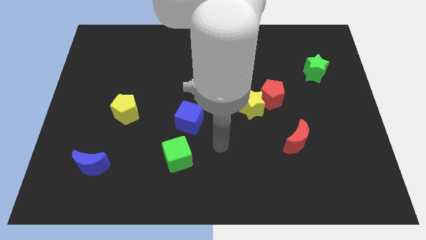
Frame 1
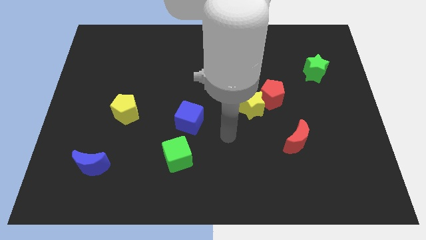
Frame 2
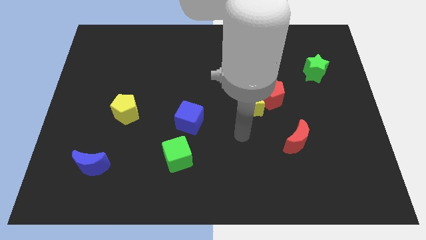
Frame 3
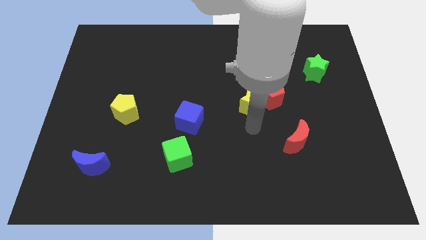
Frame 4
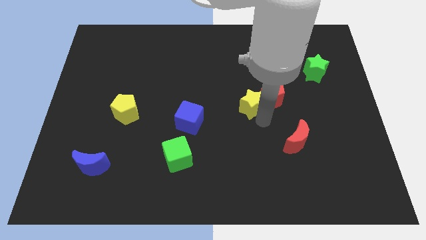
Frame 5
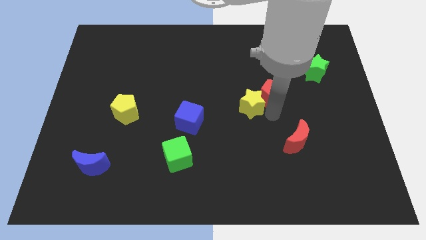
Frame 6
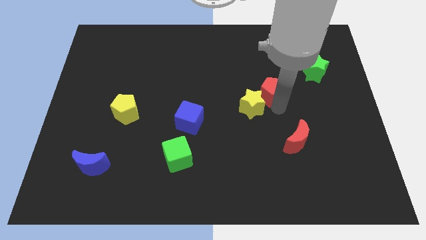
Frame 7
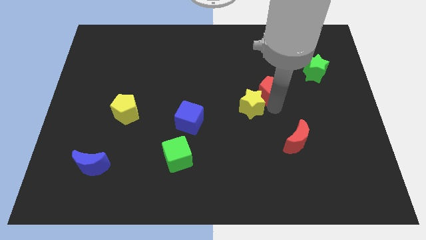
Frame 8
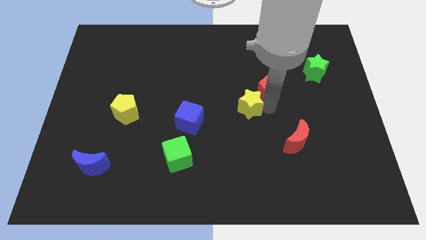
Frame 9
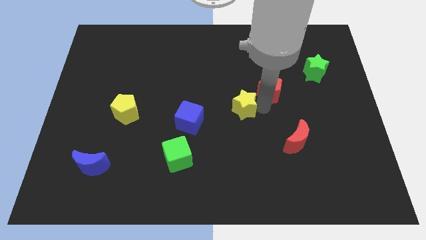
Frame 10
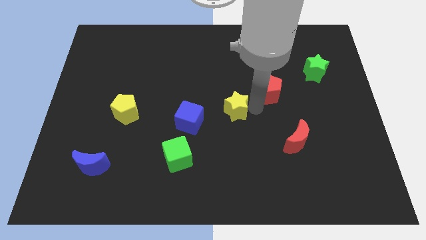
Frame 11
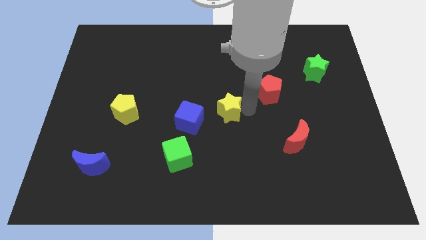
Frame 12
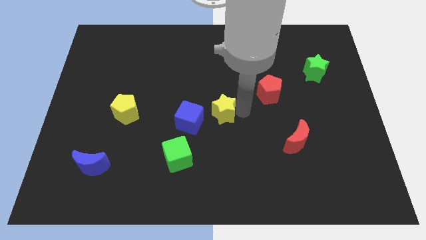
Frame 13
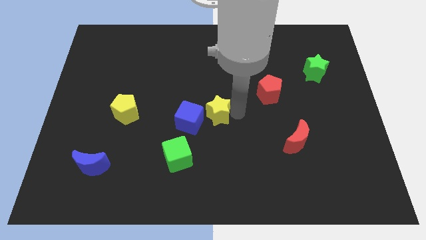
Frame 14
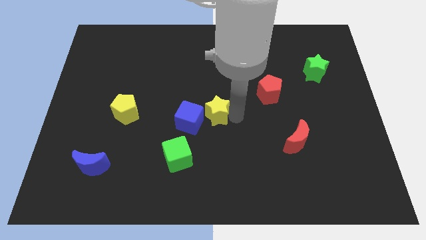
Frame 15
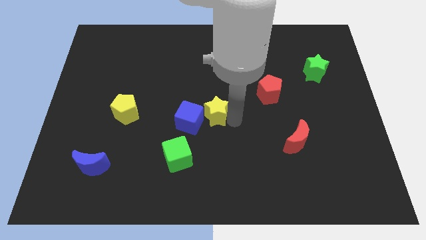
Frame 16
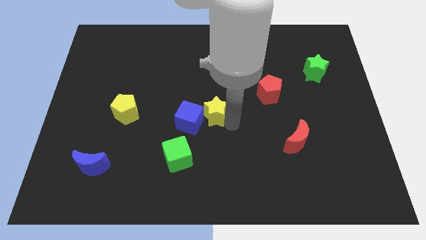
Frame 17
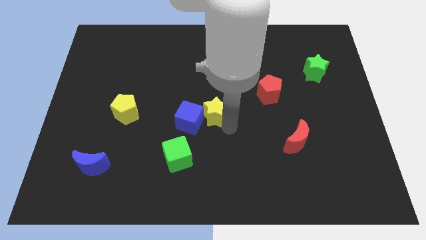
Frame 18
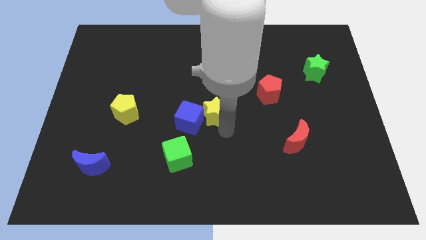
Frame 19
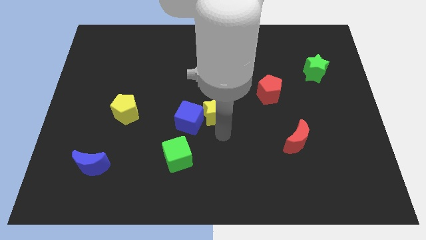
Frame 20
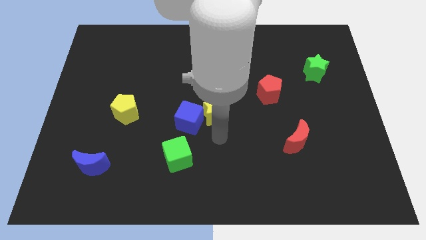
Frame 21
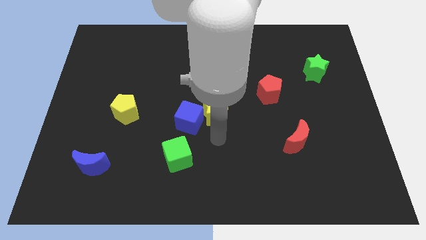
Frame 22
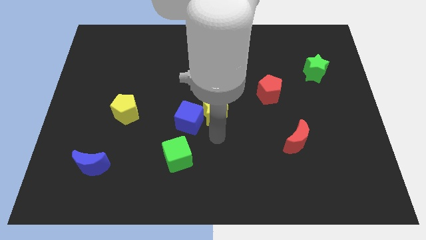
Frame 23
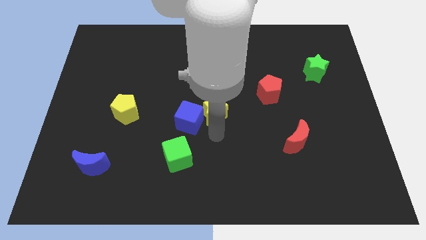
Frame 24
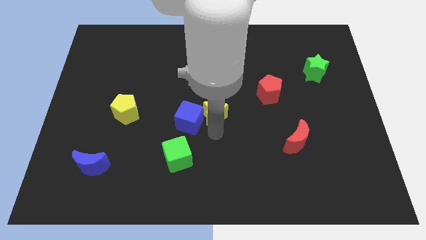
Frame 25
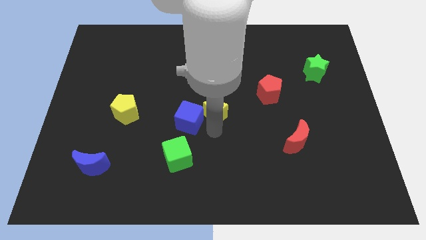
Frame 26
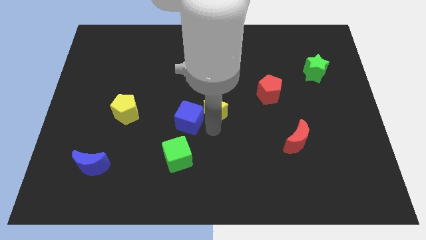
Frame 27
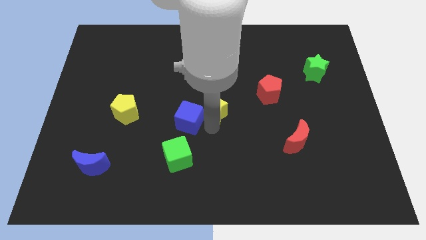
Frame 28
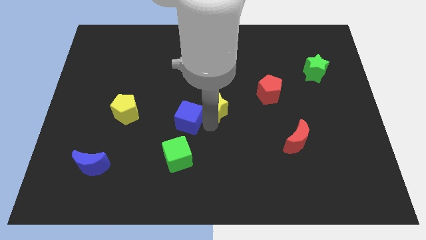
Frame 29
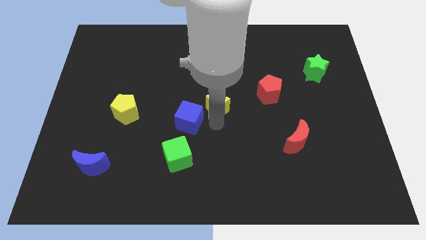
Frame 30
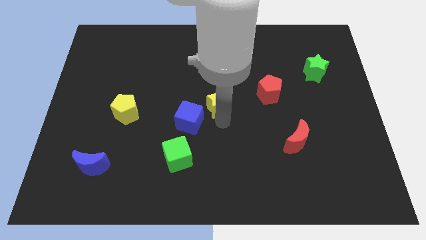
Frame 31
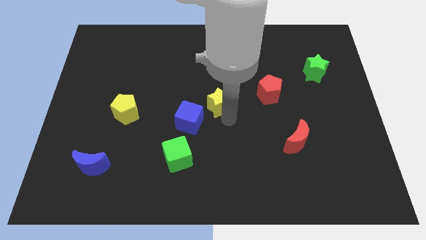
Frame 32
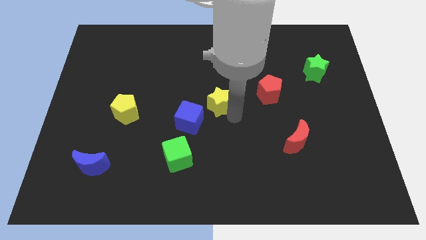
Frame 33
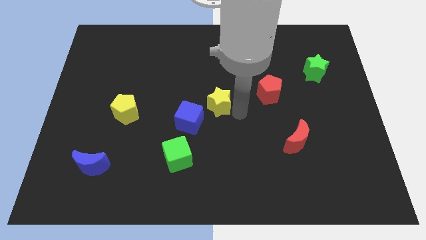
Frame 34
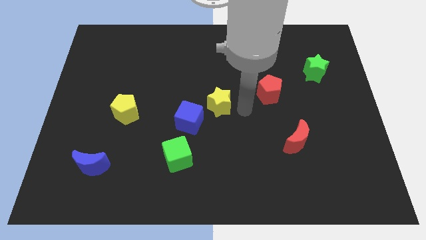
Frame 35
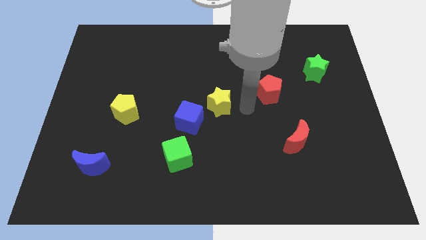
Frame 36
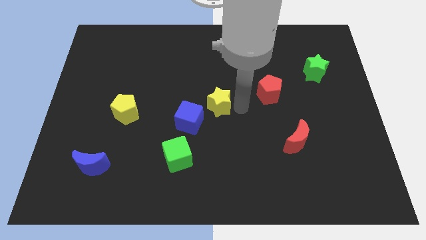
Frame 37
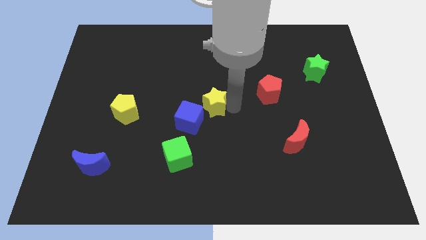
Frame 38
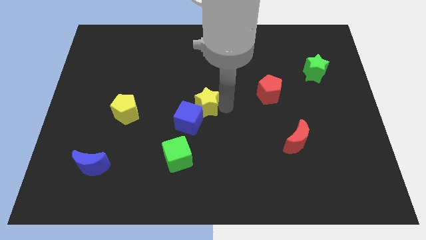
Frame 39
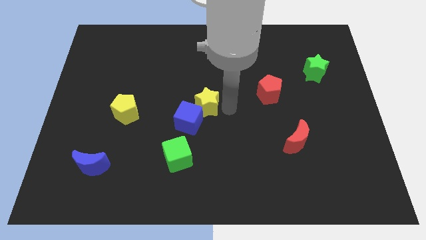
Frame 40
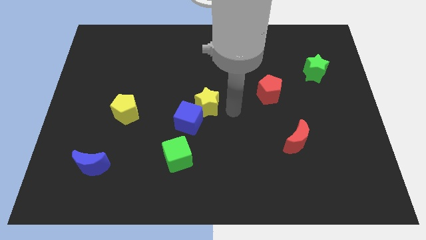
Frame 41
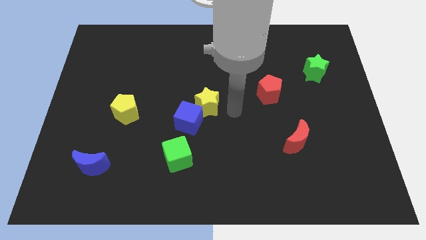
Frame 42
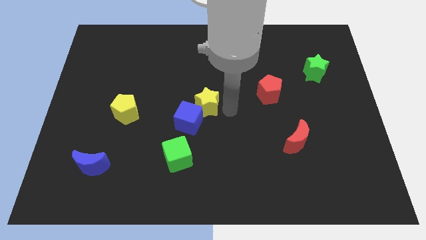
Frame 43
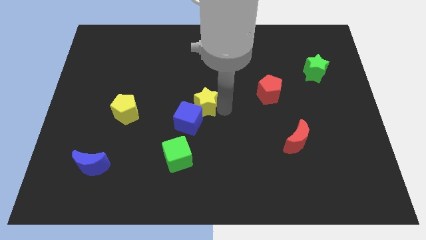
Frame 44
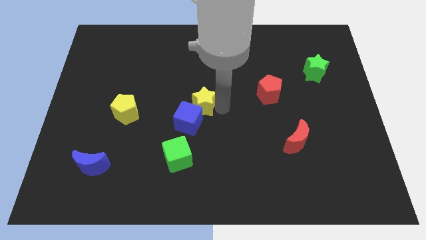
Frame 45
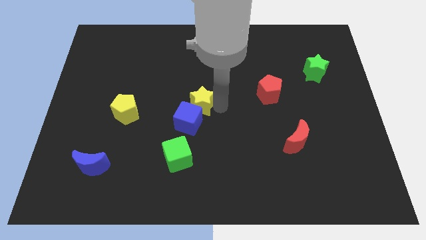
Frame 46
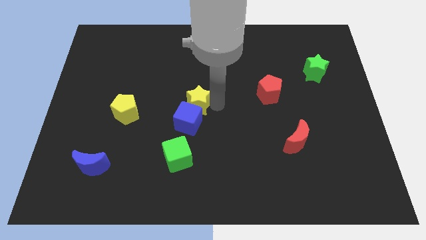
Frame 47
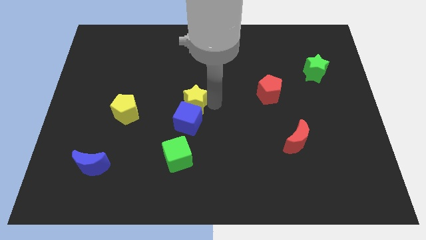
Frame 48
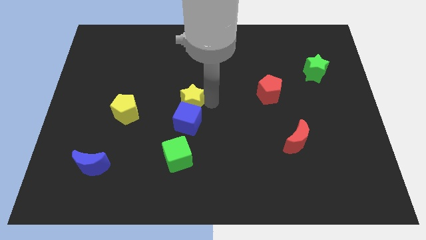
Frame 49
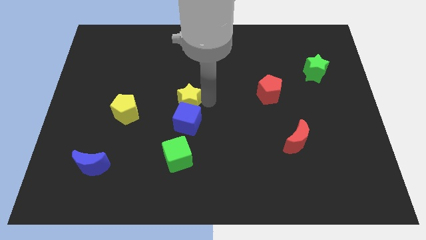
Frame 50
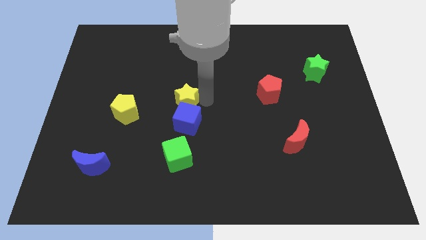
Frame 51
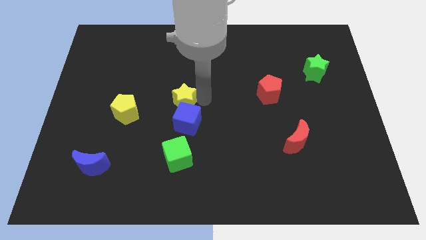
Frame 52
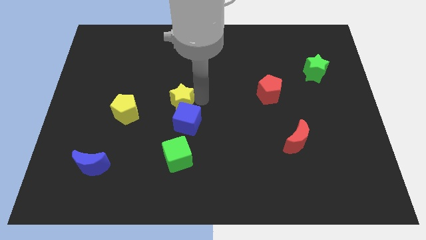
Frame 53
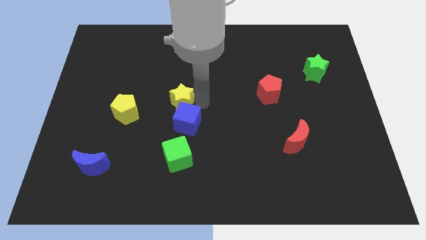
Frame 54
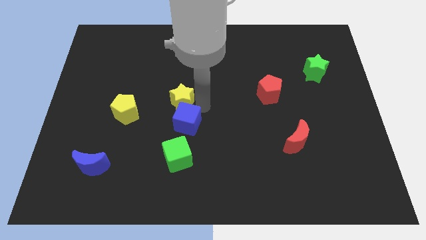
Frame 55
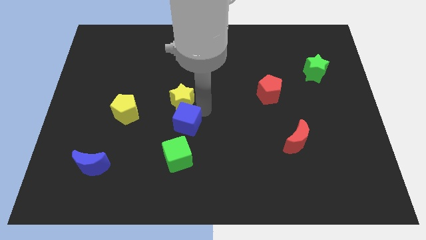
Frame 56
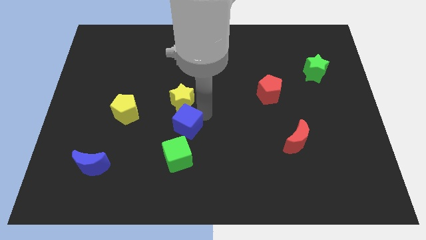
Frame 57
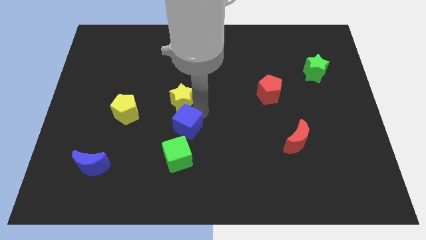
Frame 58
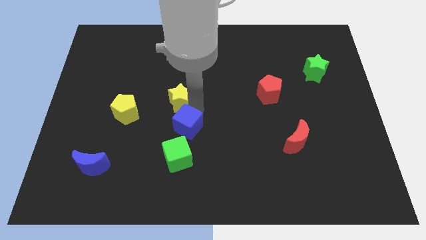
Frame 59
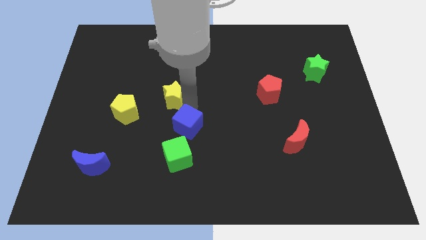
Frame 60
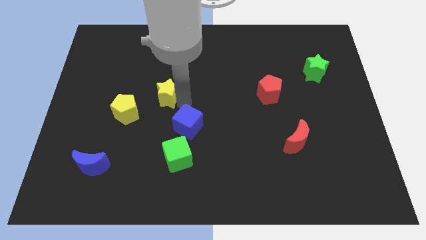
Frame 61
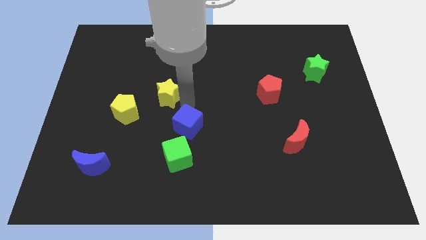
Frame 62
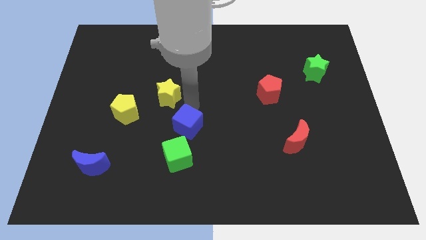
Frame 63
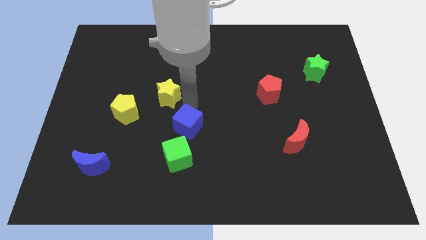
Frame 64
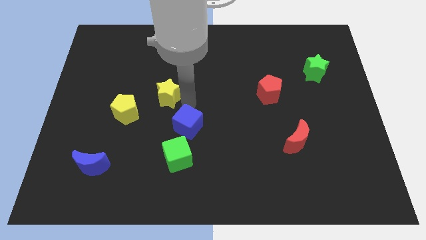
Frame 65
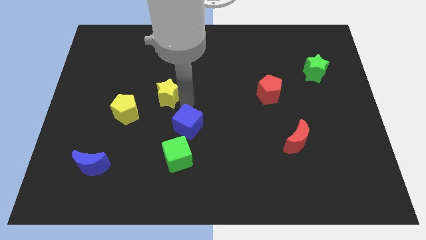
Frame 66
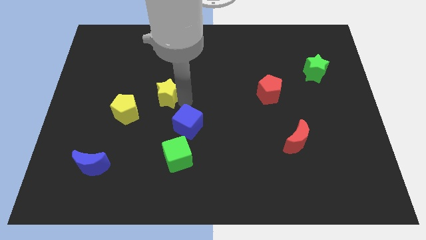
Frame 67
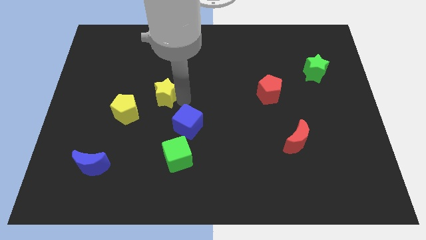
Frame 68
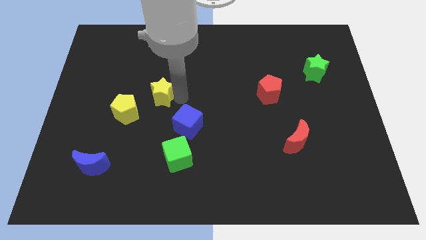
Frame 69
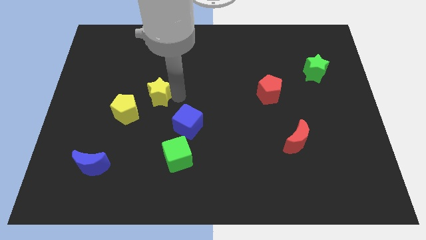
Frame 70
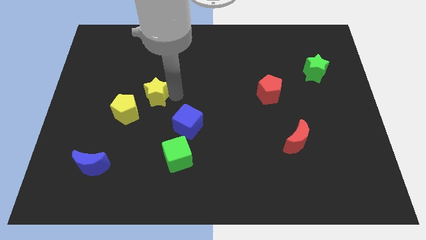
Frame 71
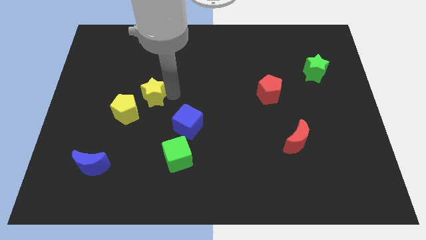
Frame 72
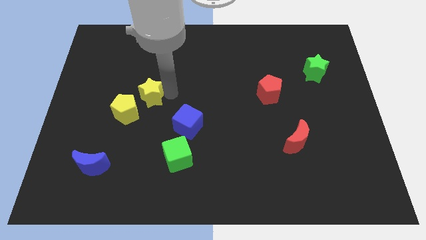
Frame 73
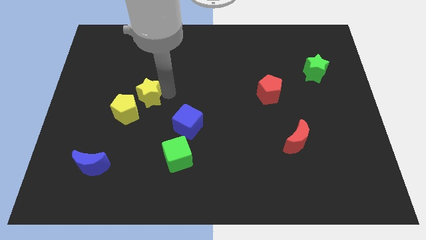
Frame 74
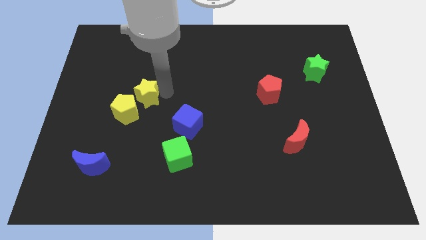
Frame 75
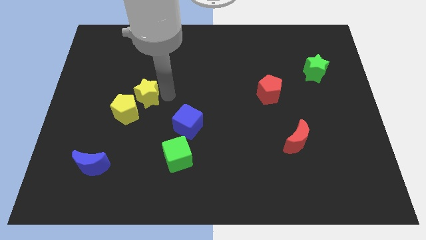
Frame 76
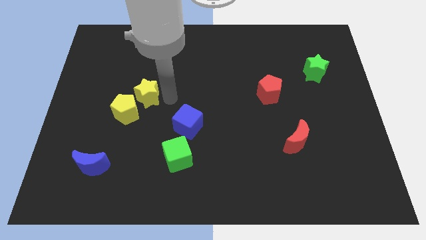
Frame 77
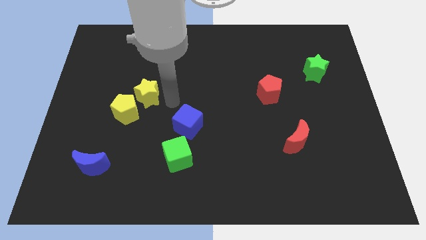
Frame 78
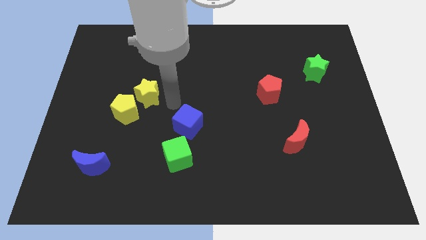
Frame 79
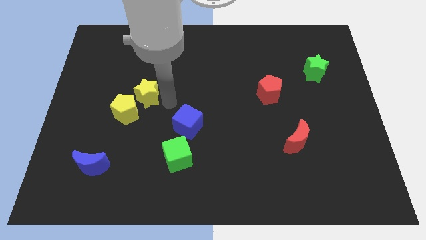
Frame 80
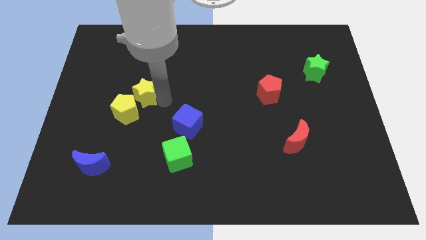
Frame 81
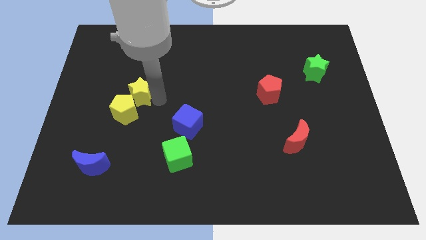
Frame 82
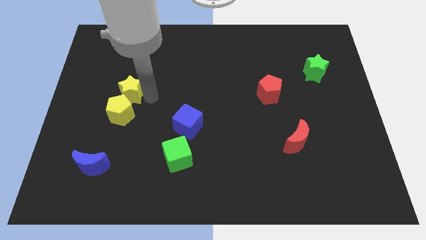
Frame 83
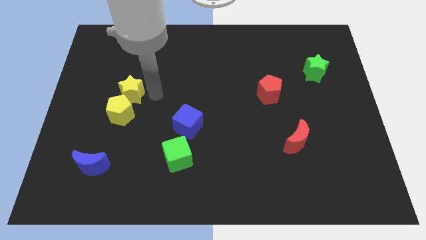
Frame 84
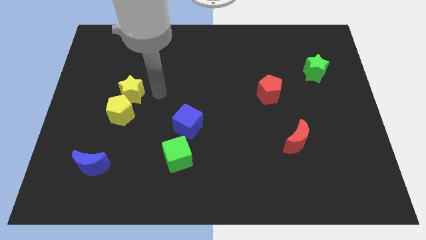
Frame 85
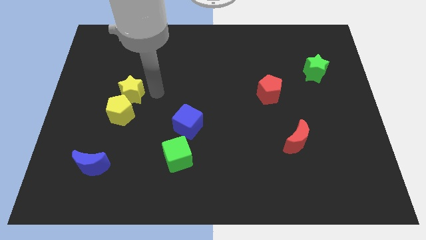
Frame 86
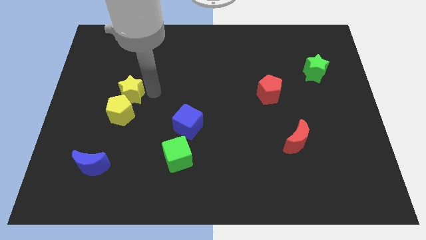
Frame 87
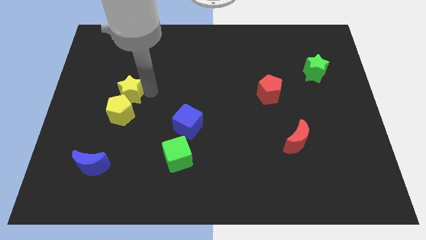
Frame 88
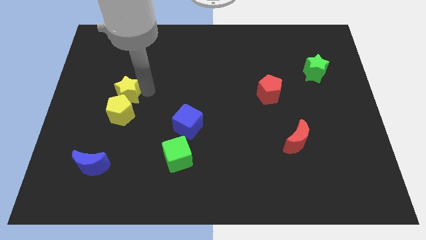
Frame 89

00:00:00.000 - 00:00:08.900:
push the yellow star to the top left side of the yellow pentagon
